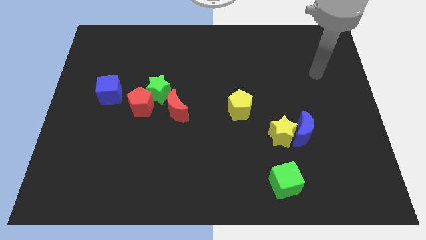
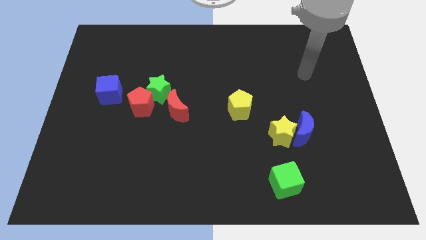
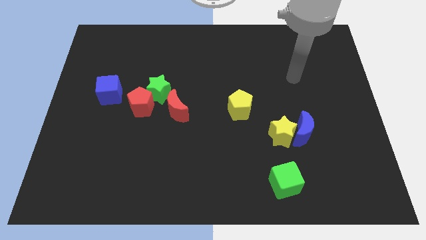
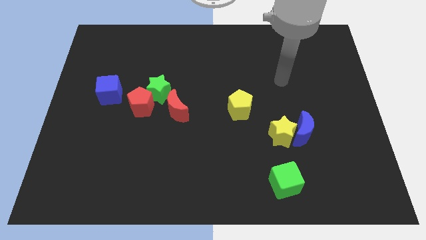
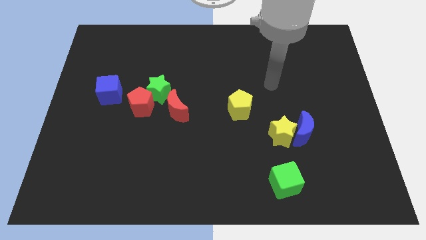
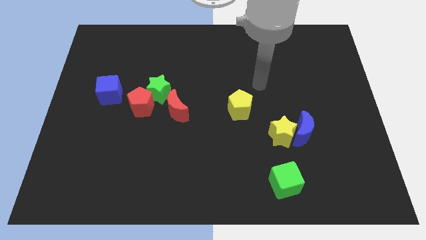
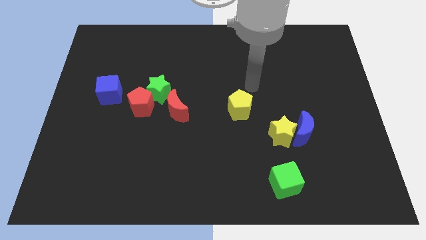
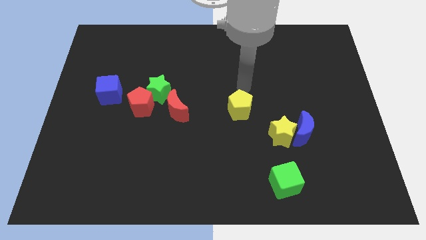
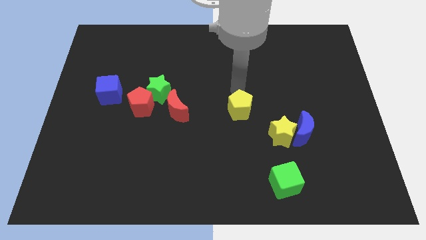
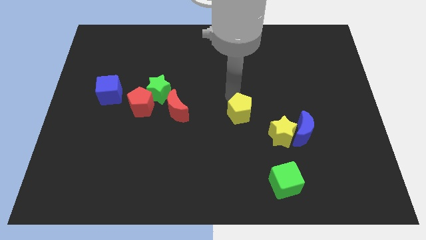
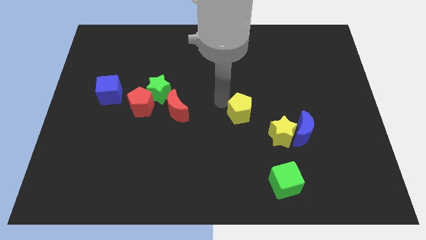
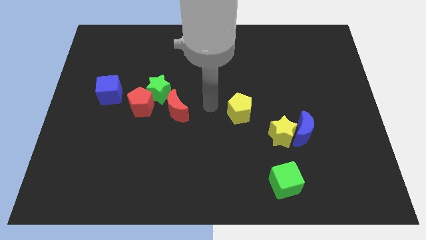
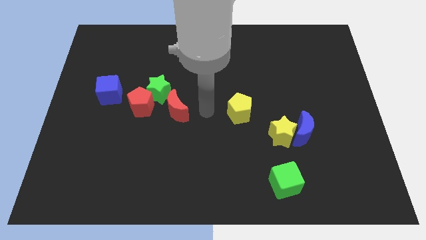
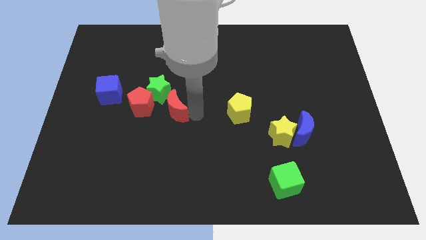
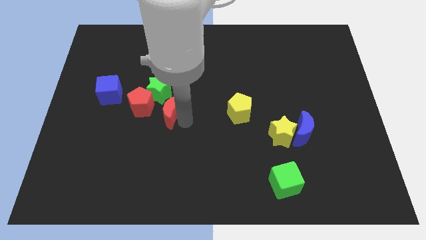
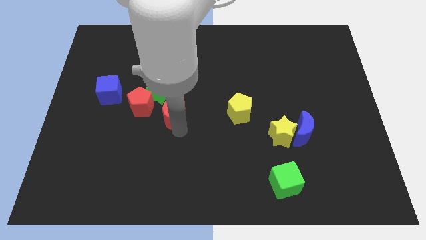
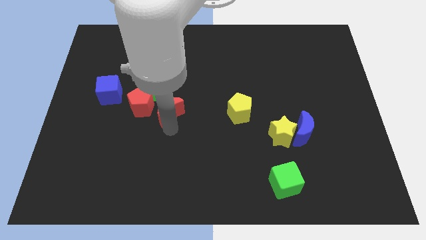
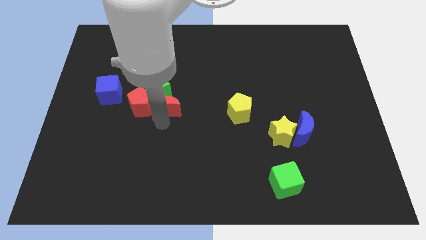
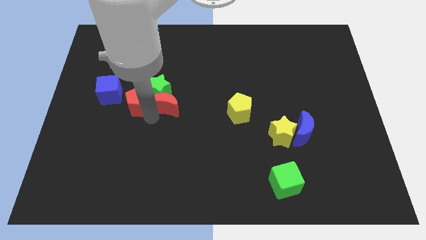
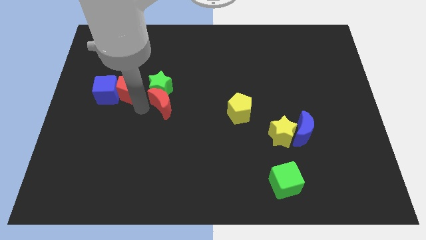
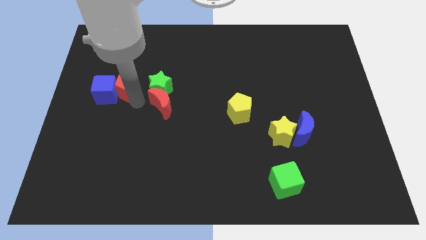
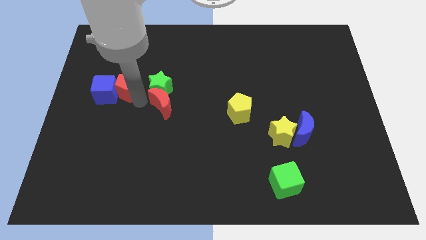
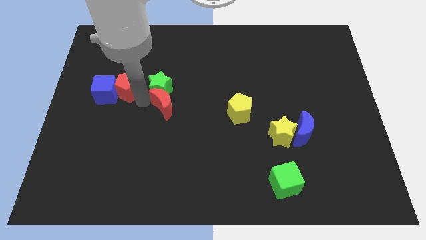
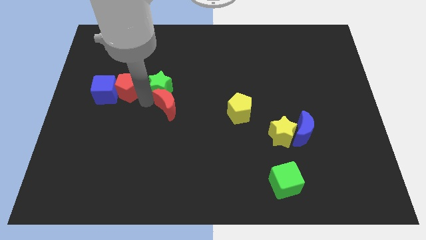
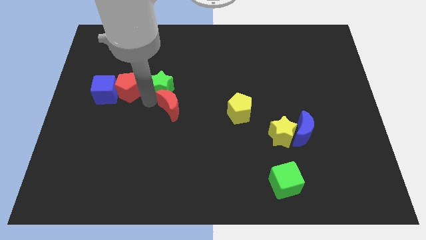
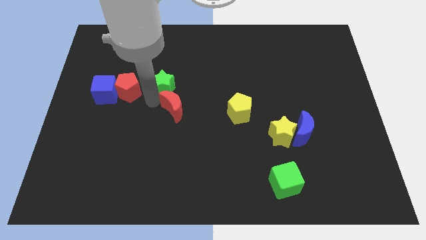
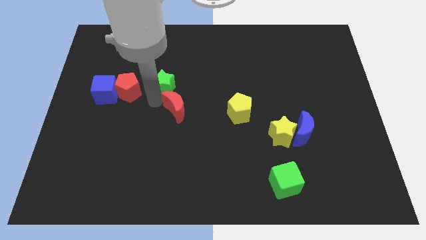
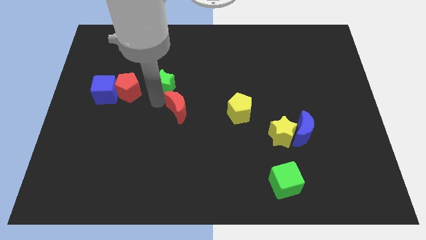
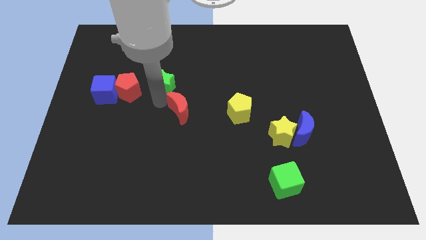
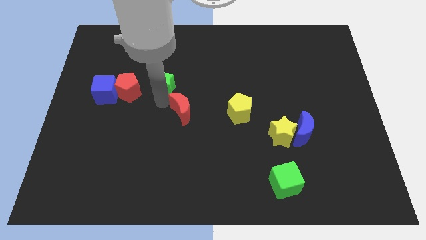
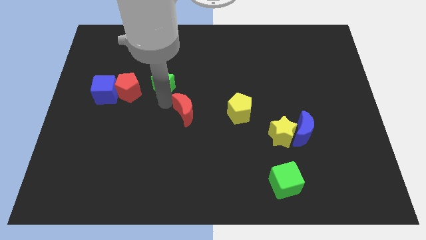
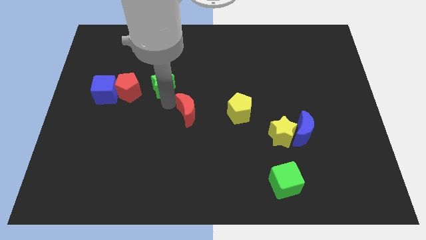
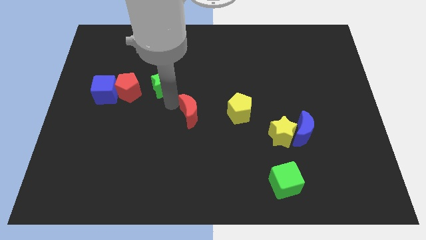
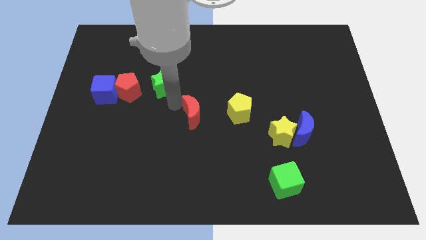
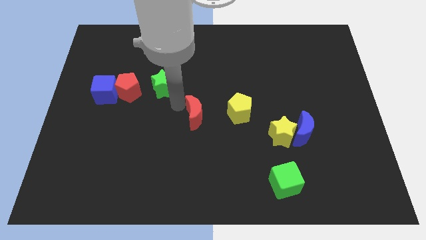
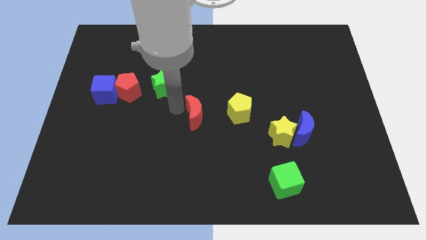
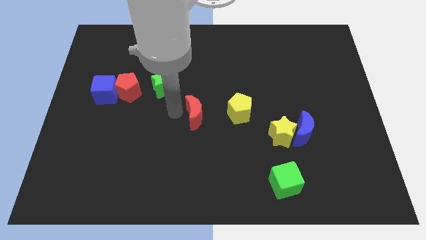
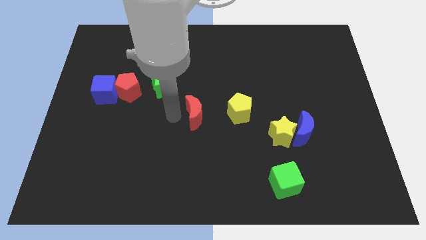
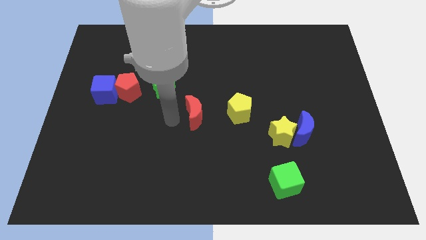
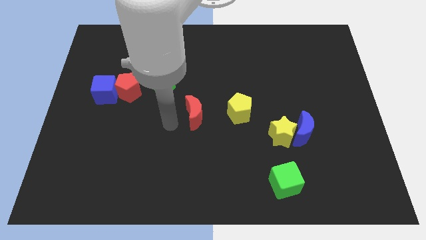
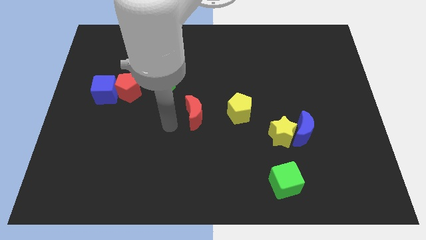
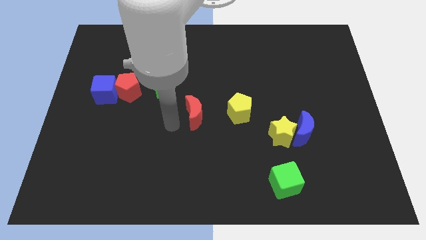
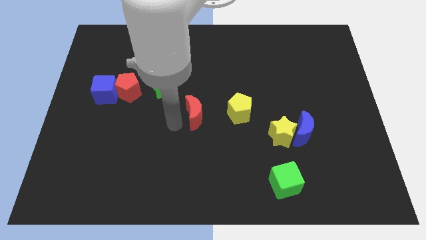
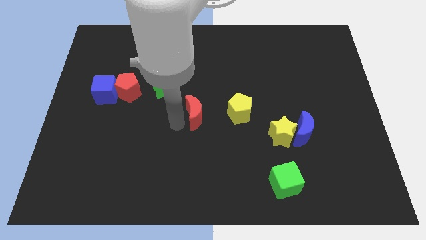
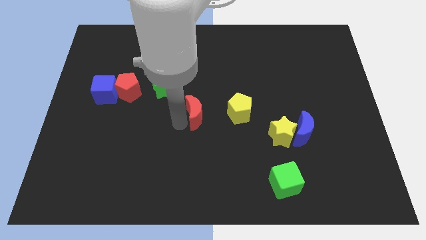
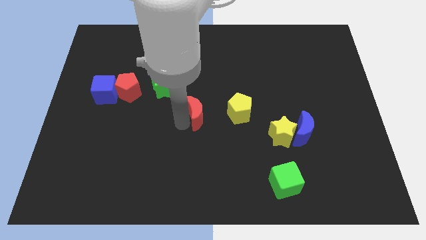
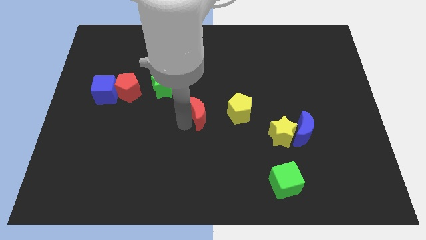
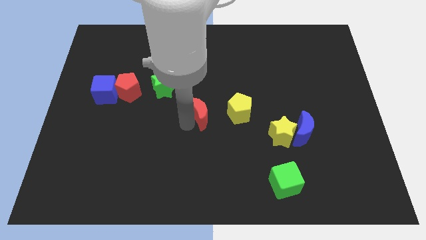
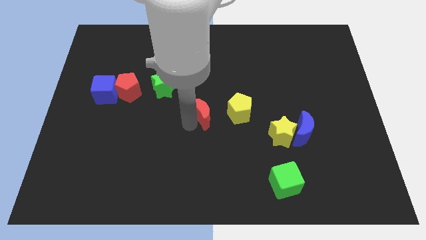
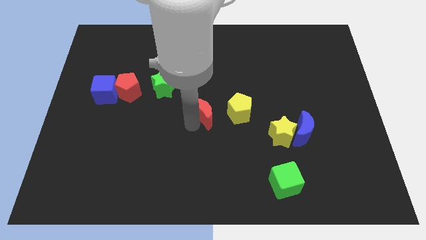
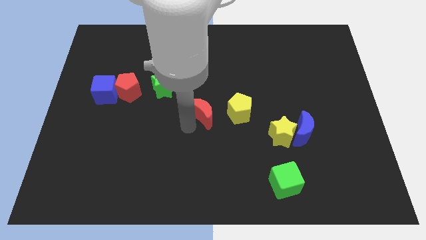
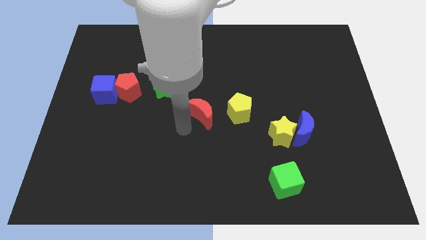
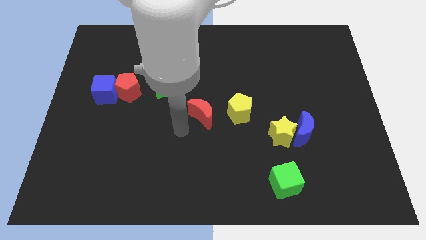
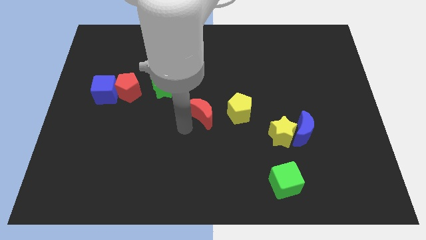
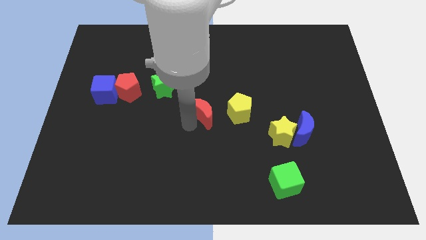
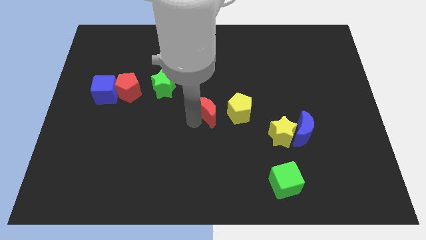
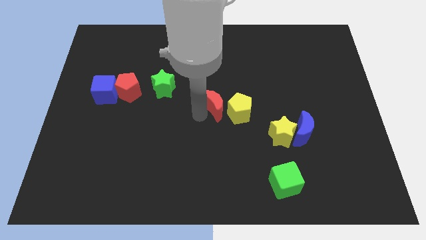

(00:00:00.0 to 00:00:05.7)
push the red moon next to the yellow pentagon

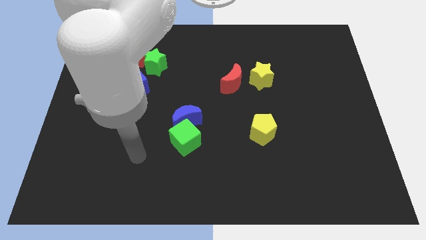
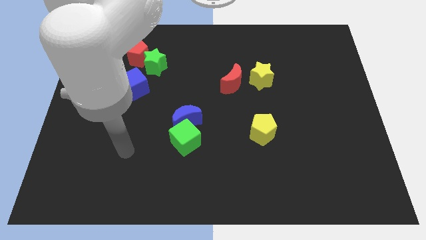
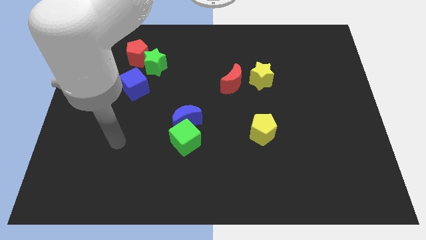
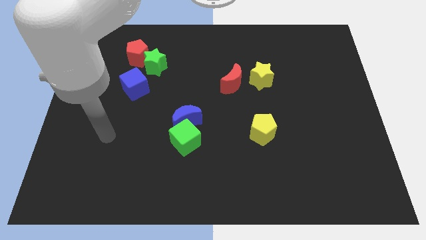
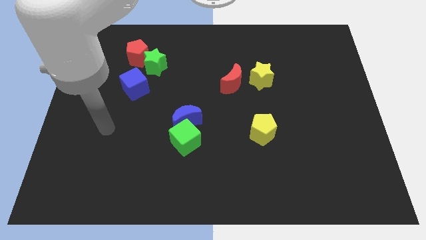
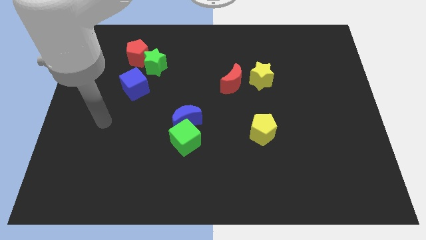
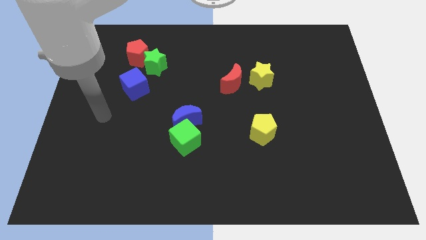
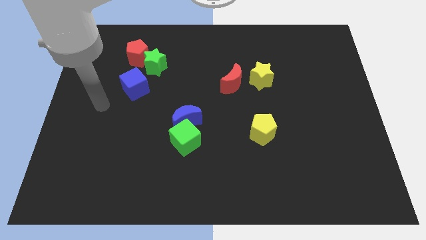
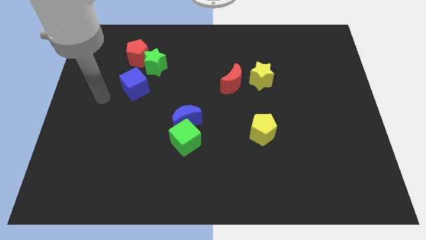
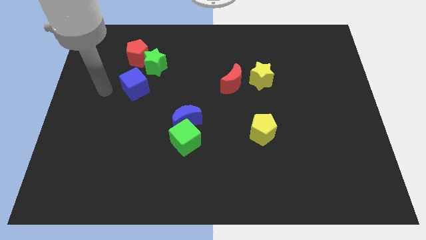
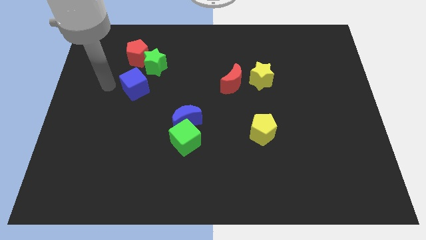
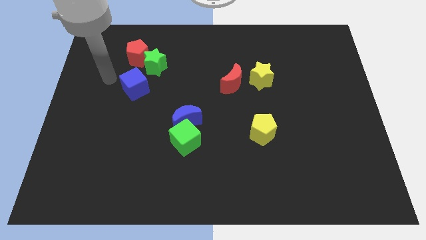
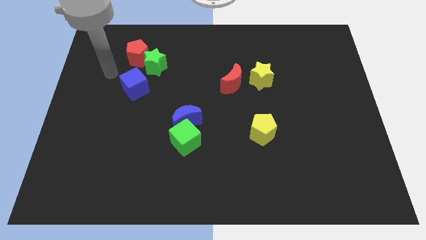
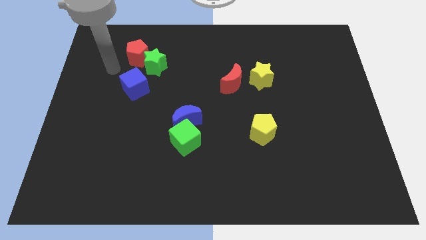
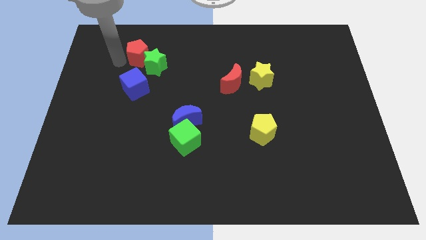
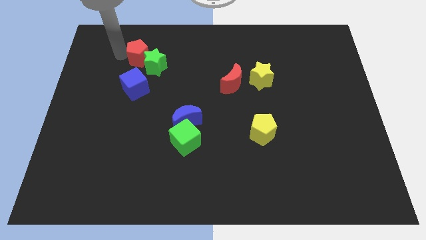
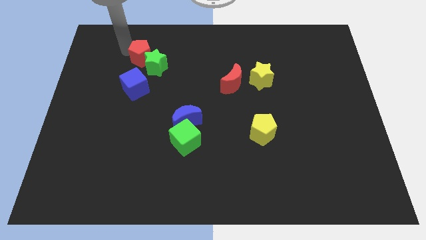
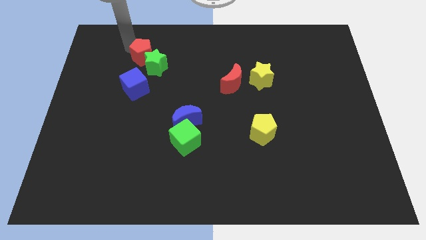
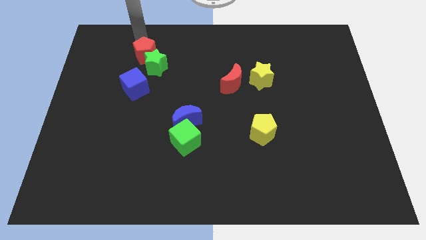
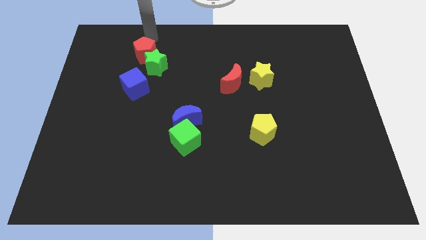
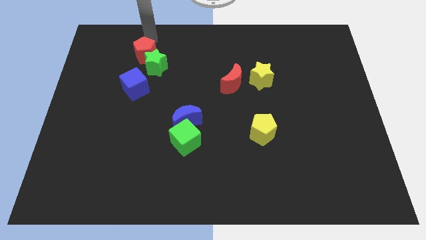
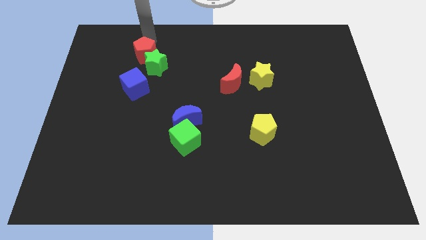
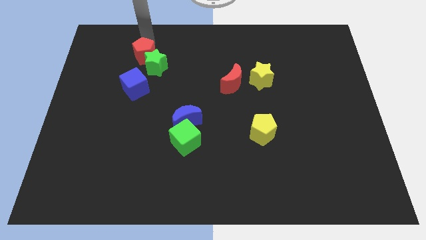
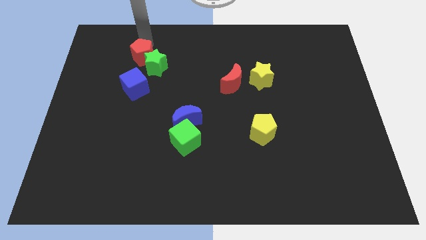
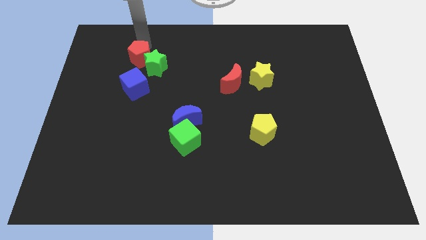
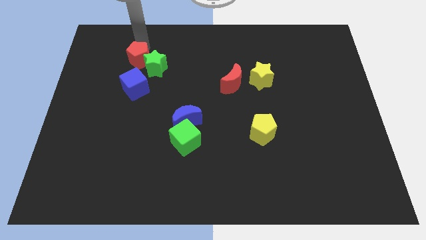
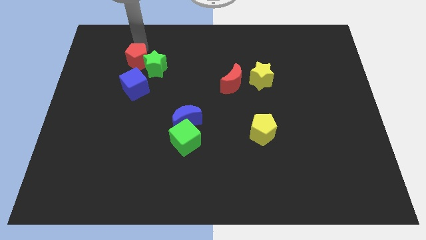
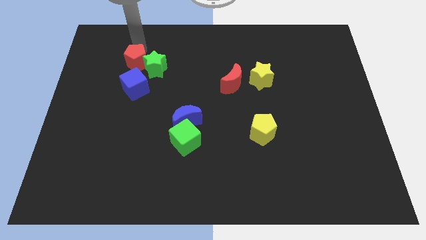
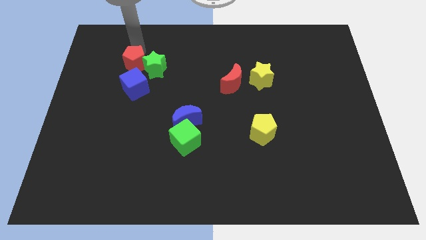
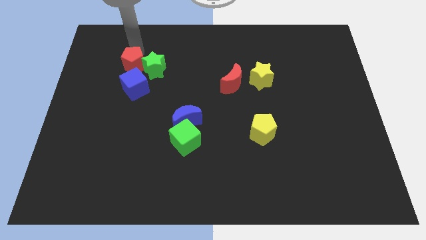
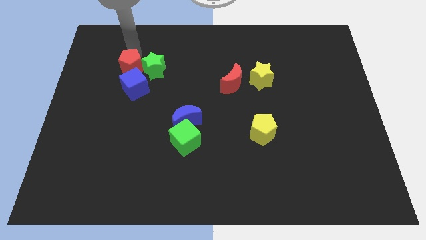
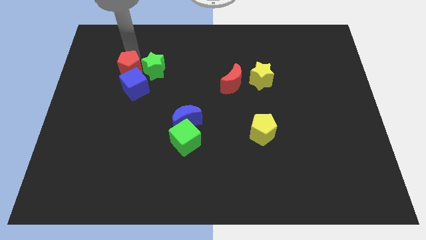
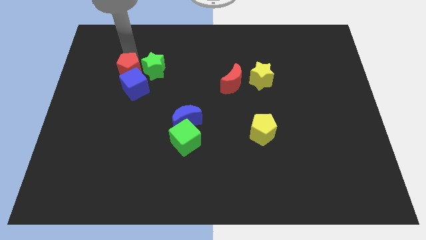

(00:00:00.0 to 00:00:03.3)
put the red pentagon next to the blue cube
